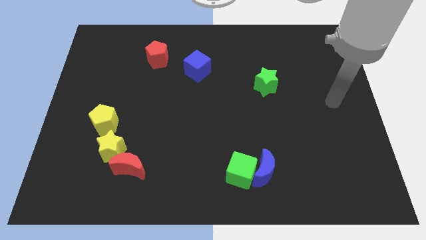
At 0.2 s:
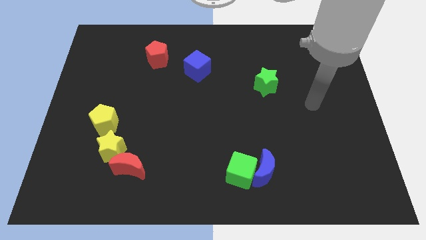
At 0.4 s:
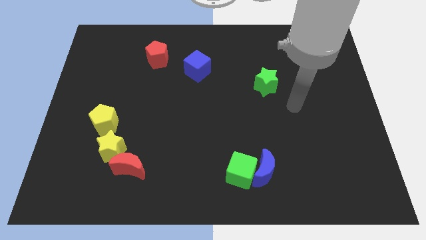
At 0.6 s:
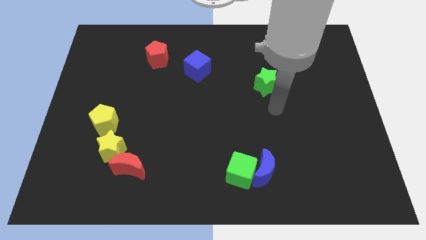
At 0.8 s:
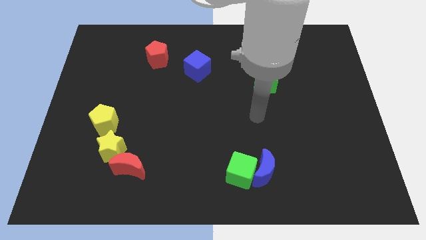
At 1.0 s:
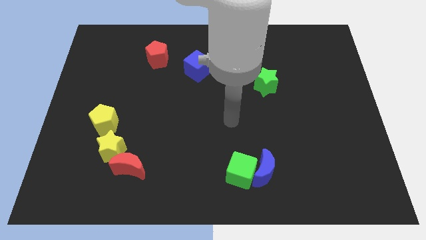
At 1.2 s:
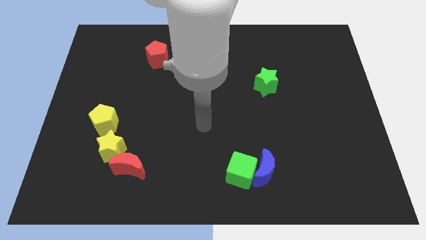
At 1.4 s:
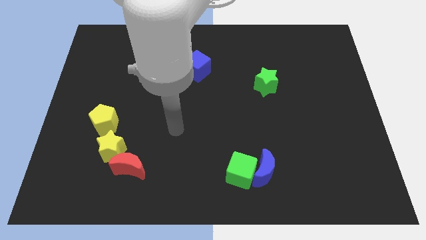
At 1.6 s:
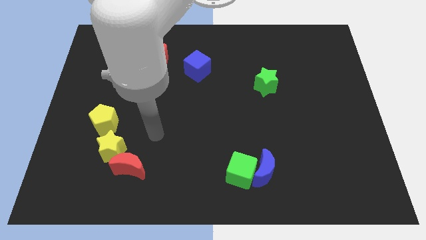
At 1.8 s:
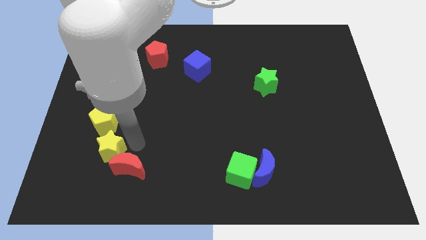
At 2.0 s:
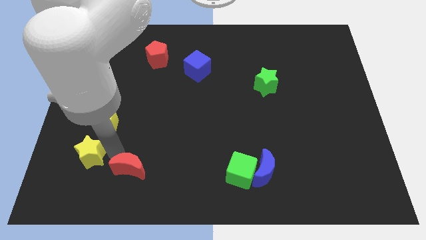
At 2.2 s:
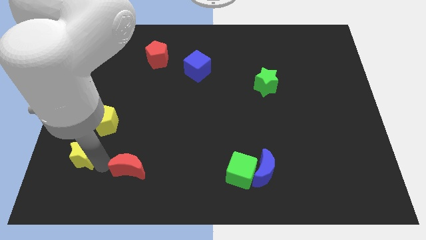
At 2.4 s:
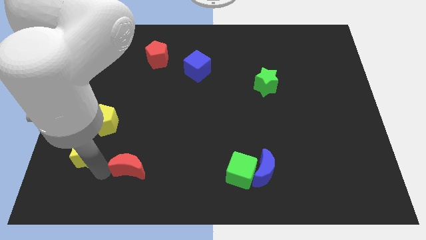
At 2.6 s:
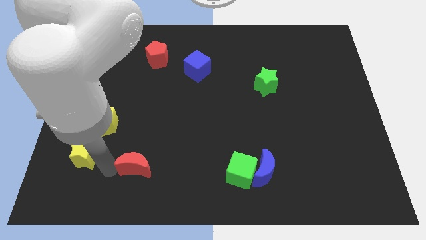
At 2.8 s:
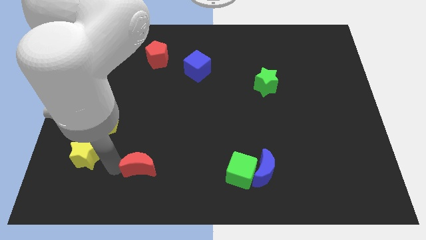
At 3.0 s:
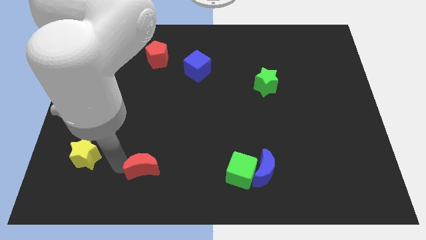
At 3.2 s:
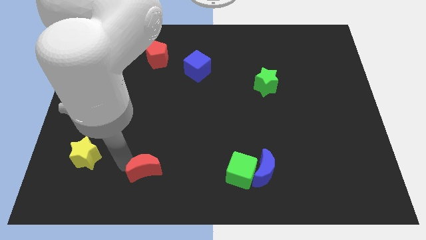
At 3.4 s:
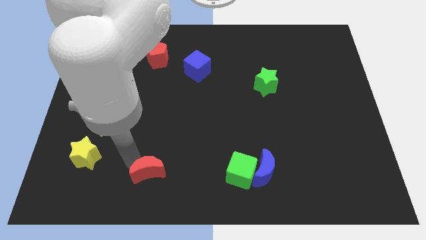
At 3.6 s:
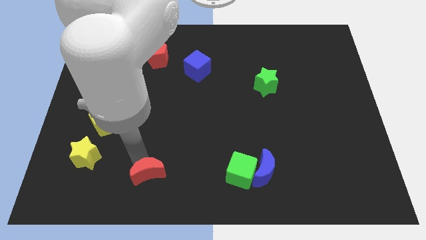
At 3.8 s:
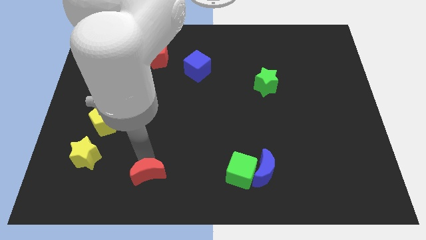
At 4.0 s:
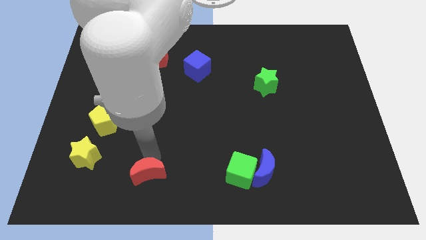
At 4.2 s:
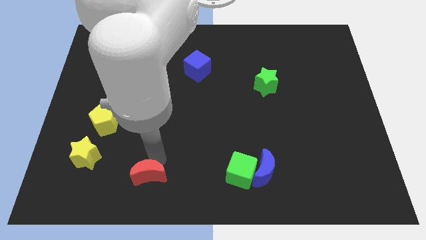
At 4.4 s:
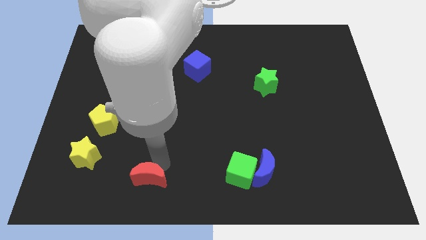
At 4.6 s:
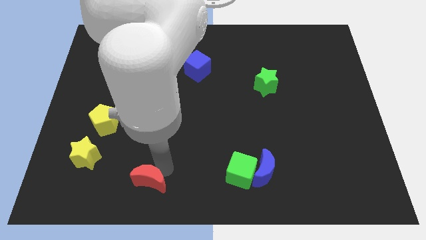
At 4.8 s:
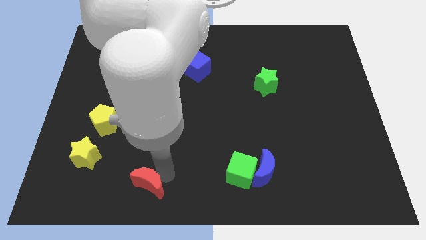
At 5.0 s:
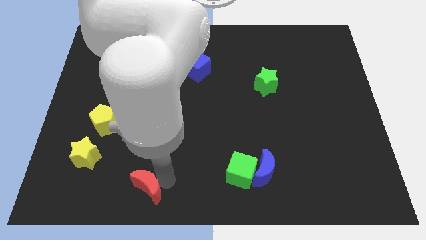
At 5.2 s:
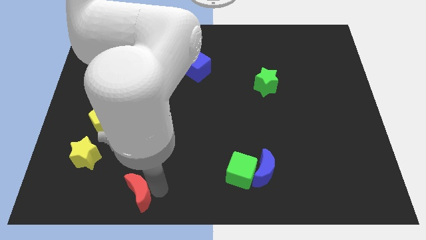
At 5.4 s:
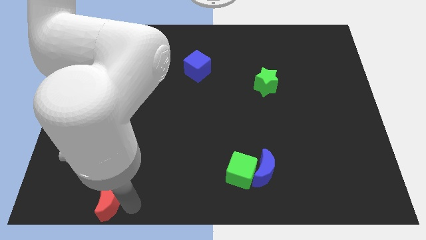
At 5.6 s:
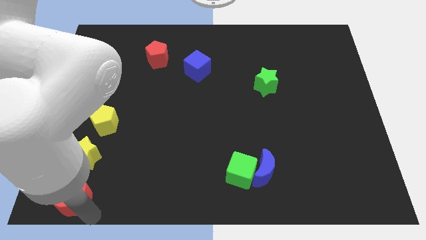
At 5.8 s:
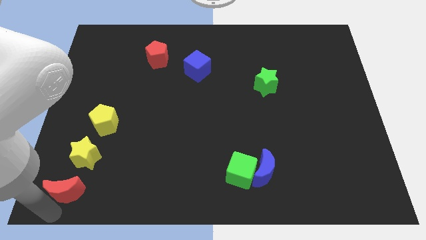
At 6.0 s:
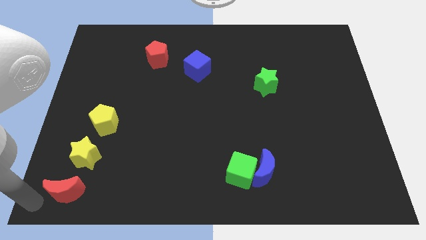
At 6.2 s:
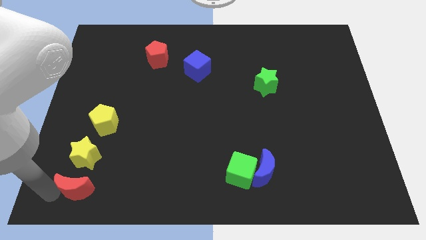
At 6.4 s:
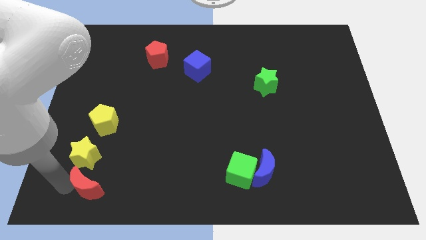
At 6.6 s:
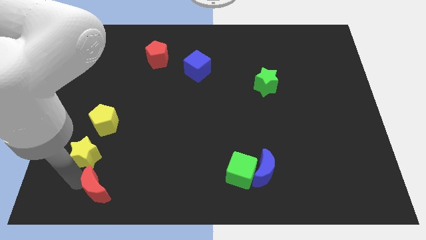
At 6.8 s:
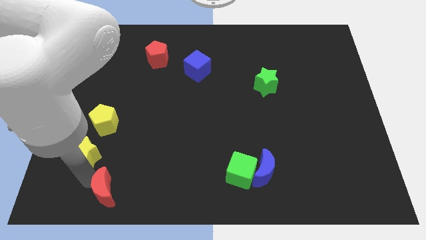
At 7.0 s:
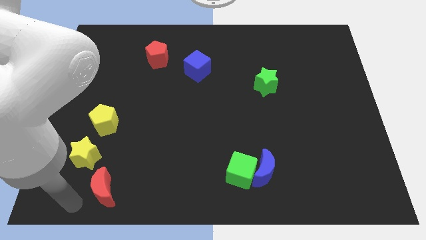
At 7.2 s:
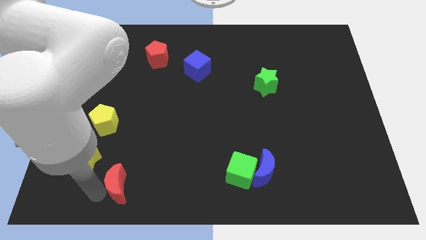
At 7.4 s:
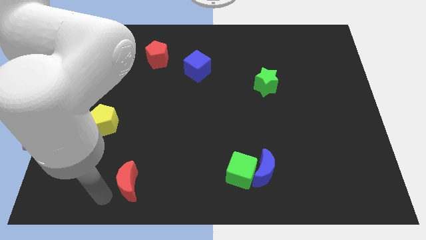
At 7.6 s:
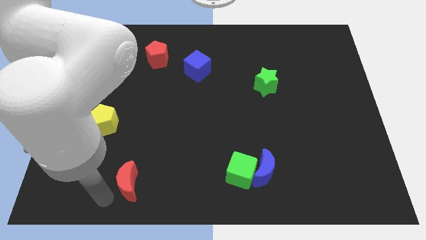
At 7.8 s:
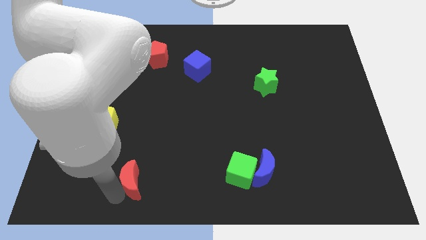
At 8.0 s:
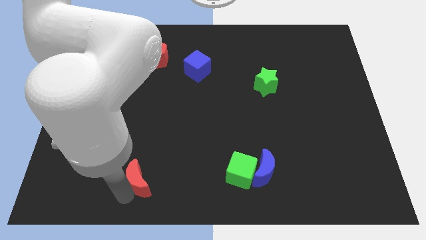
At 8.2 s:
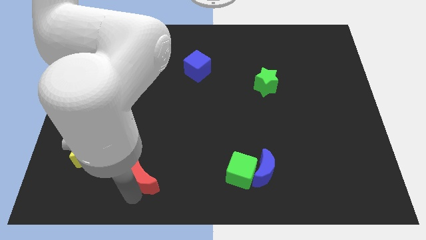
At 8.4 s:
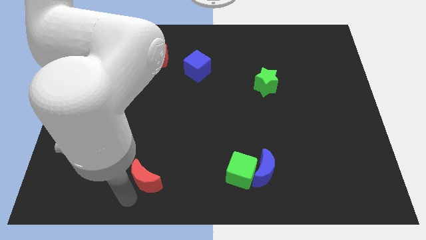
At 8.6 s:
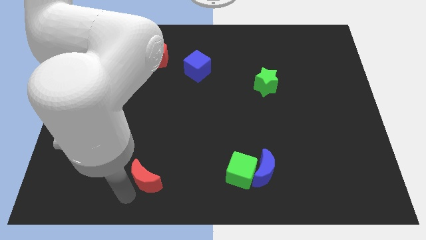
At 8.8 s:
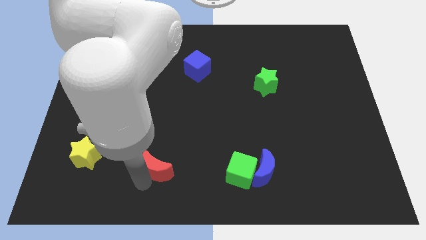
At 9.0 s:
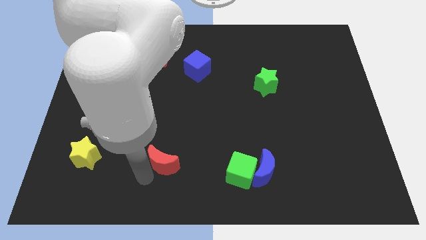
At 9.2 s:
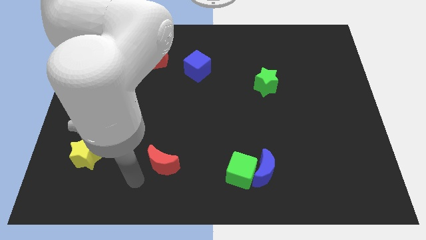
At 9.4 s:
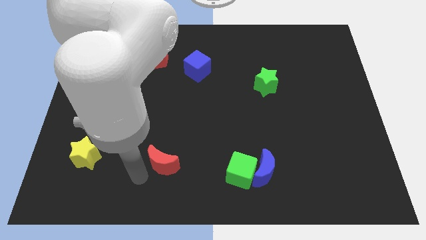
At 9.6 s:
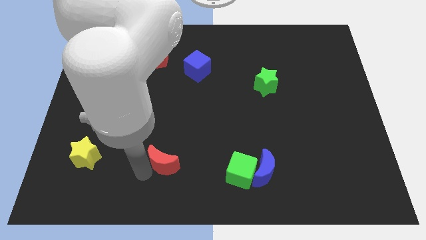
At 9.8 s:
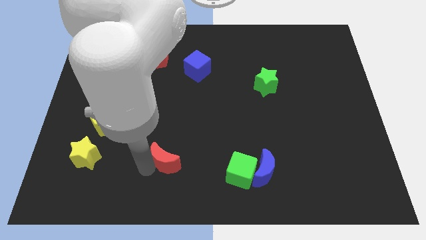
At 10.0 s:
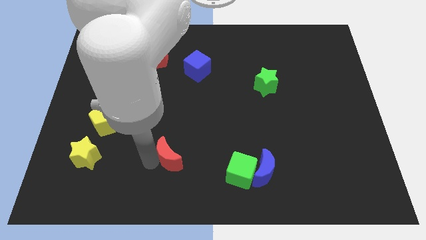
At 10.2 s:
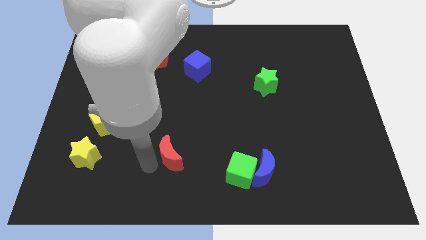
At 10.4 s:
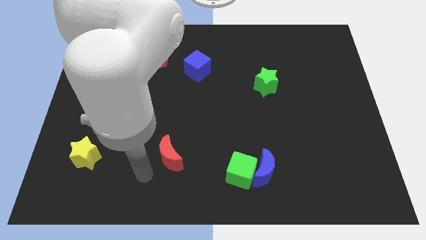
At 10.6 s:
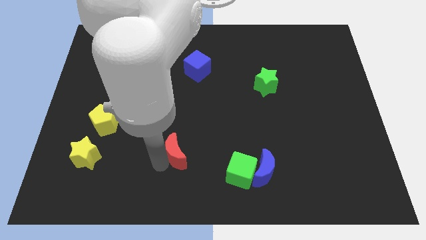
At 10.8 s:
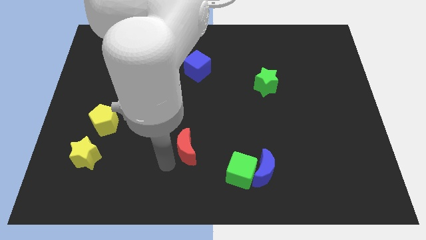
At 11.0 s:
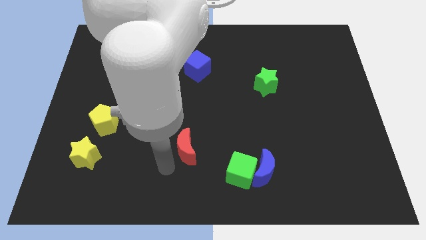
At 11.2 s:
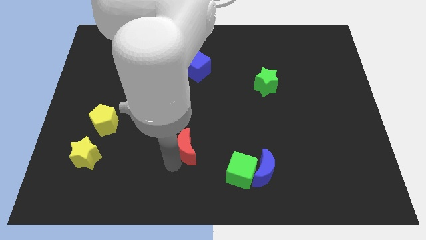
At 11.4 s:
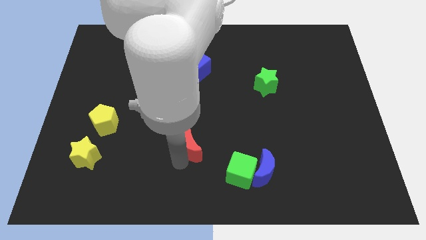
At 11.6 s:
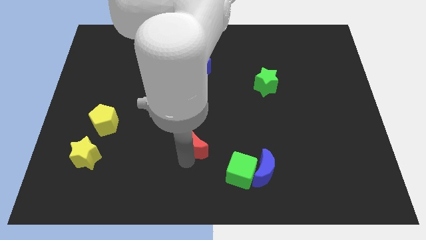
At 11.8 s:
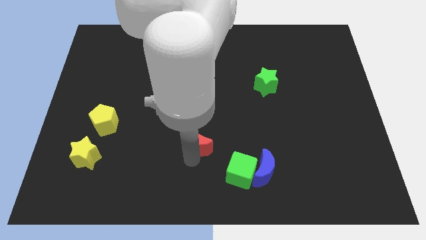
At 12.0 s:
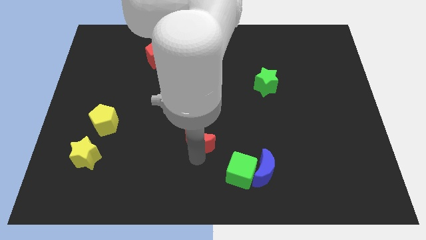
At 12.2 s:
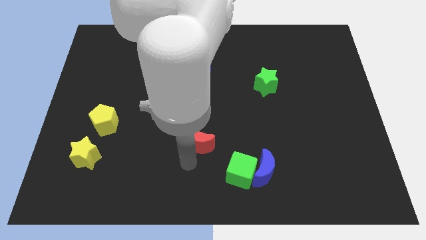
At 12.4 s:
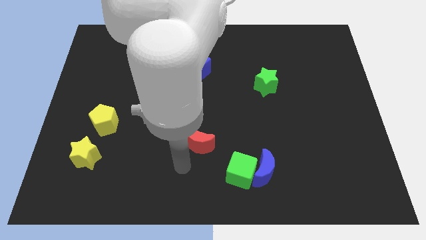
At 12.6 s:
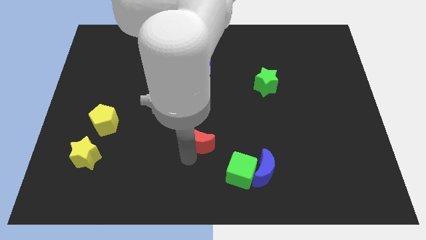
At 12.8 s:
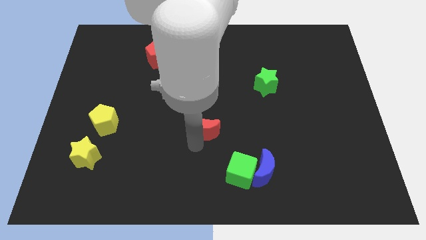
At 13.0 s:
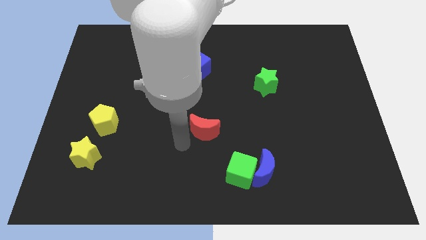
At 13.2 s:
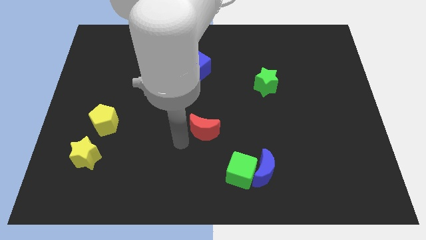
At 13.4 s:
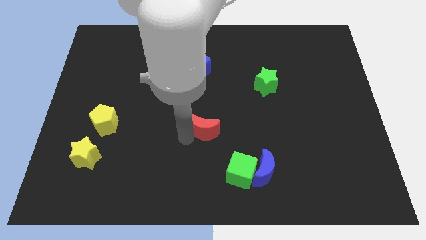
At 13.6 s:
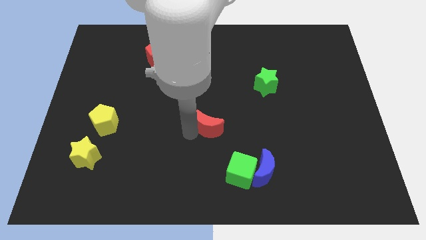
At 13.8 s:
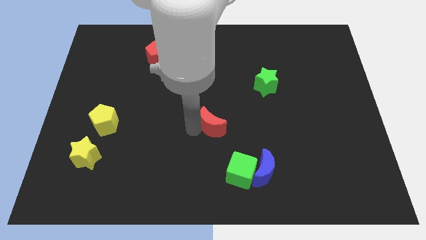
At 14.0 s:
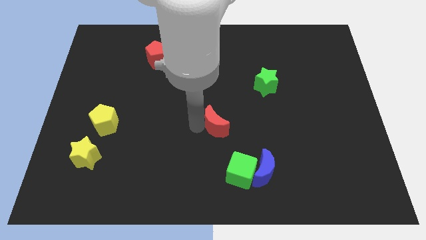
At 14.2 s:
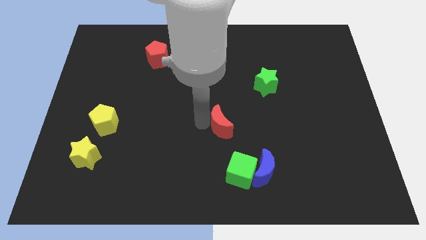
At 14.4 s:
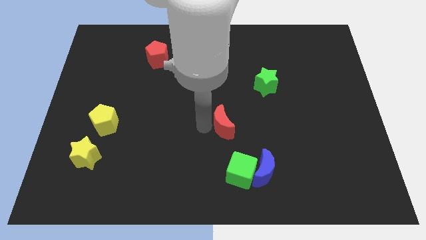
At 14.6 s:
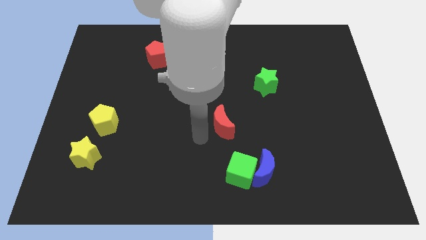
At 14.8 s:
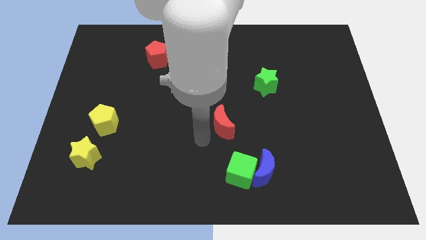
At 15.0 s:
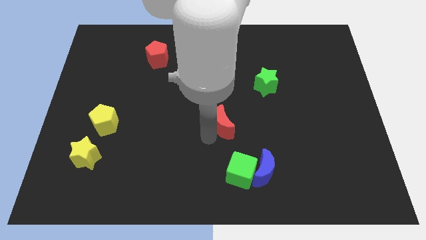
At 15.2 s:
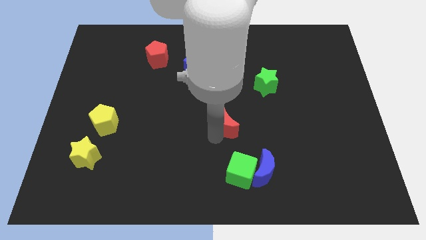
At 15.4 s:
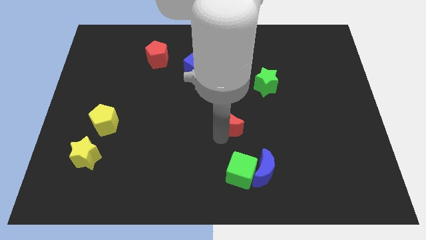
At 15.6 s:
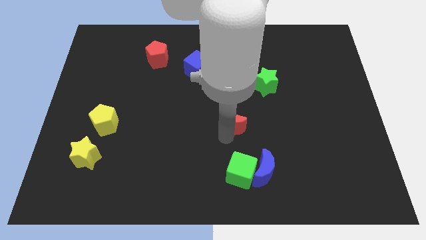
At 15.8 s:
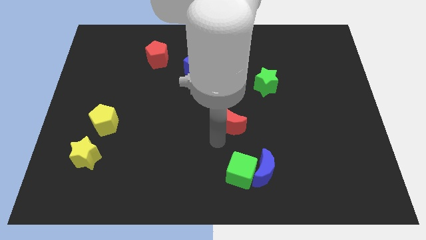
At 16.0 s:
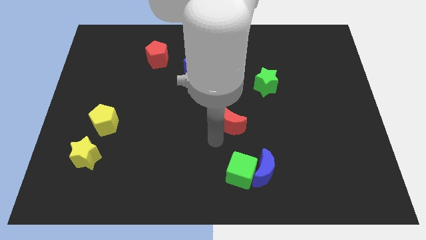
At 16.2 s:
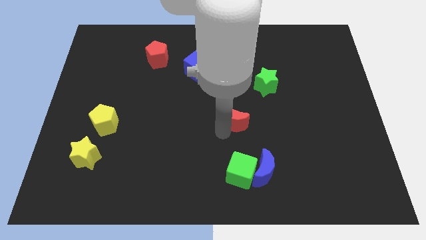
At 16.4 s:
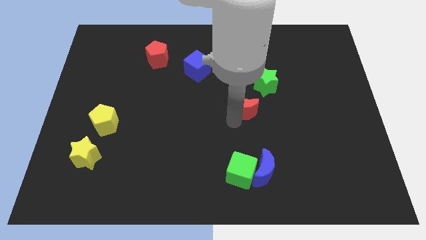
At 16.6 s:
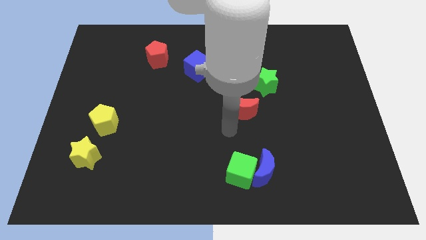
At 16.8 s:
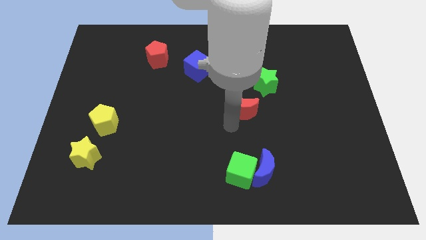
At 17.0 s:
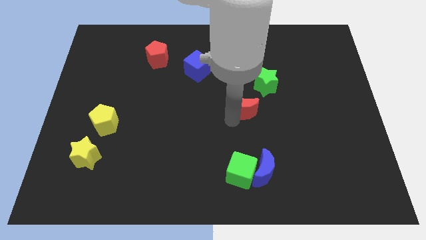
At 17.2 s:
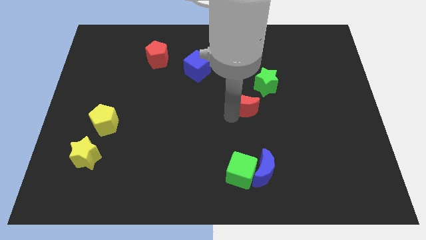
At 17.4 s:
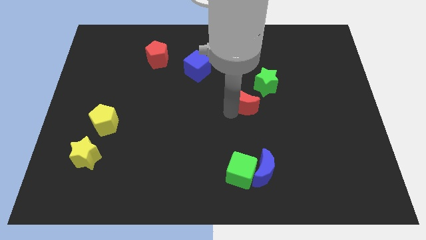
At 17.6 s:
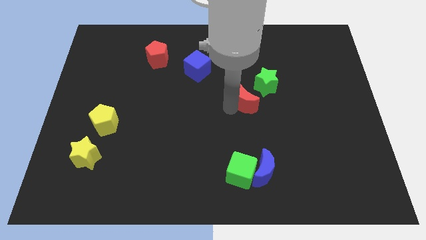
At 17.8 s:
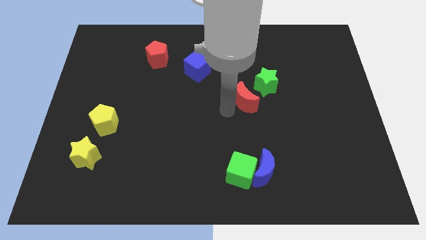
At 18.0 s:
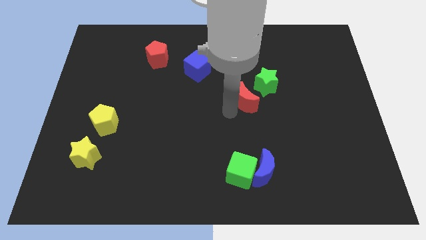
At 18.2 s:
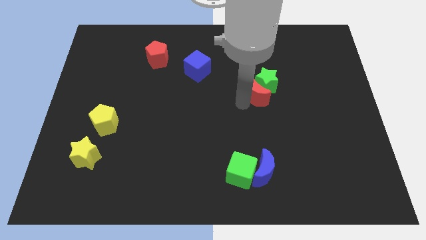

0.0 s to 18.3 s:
move the red moon towards the green star
